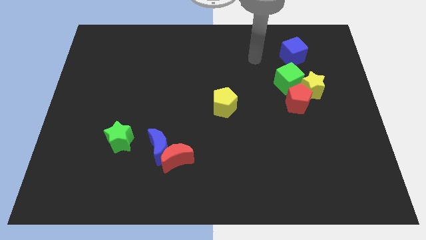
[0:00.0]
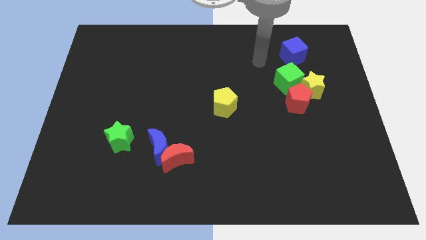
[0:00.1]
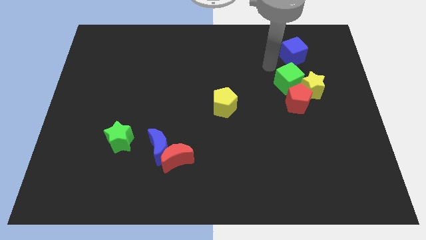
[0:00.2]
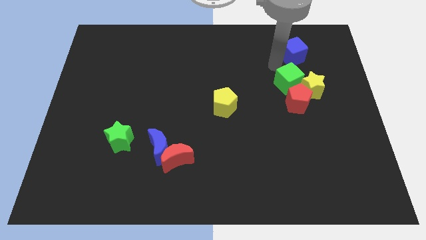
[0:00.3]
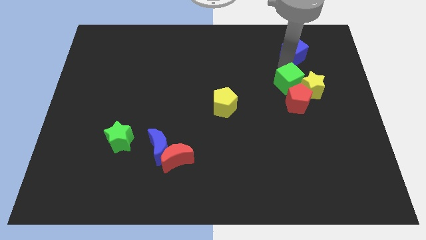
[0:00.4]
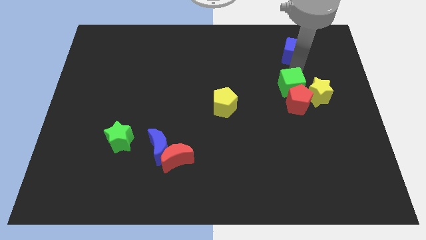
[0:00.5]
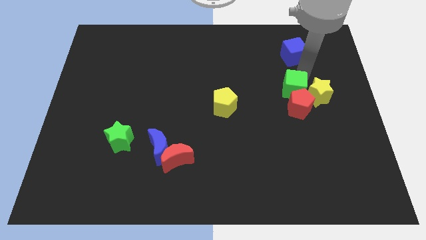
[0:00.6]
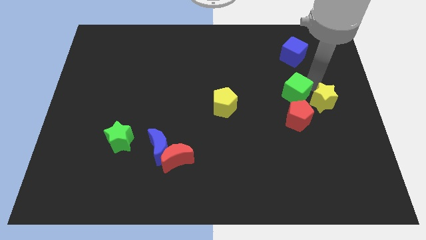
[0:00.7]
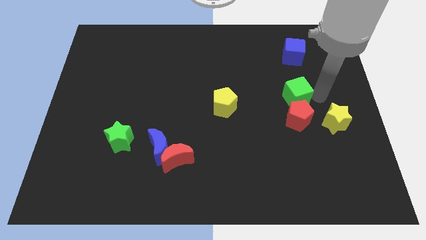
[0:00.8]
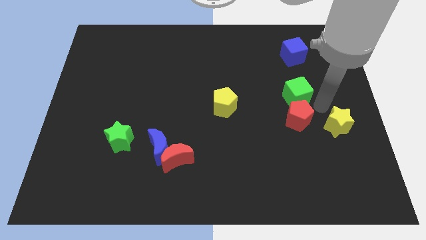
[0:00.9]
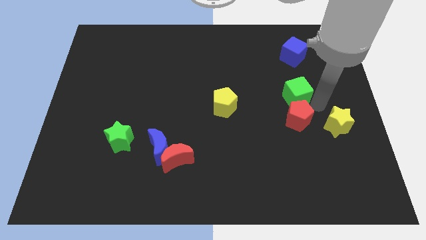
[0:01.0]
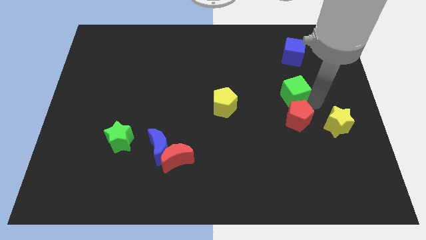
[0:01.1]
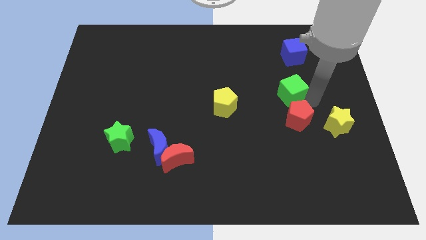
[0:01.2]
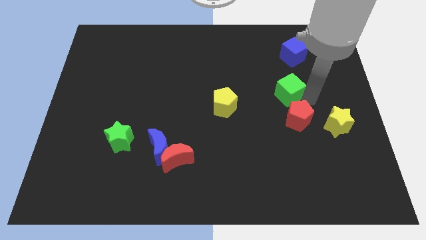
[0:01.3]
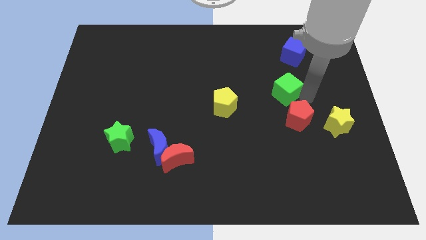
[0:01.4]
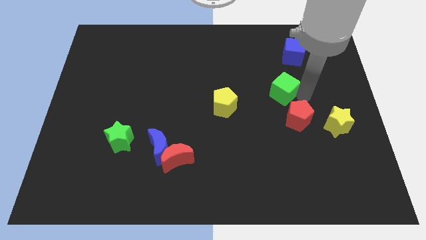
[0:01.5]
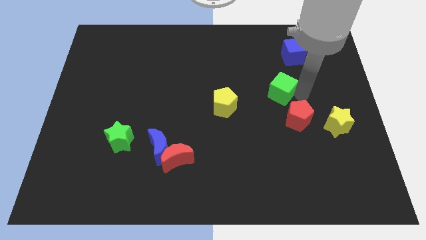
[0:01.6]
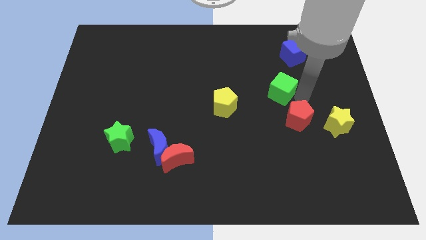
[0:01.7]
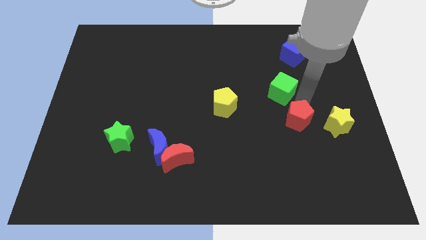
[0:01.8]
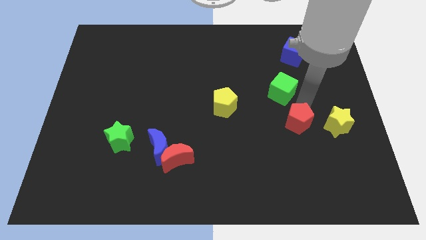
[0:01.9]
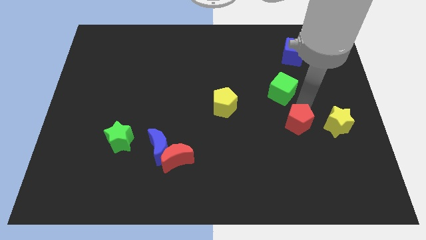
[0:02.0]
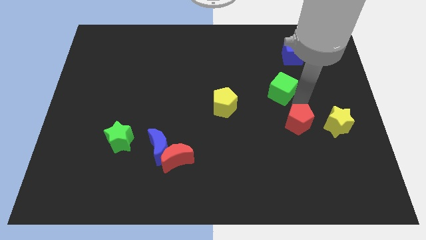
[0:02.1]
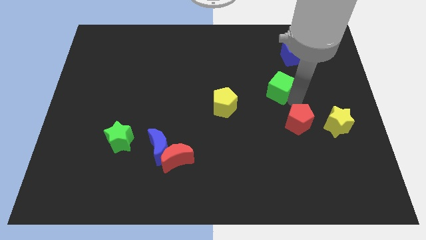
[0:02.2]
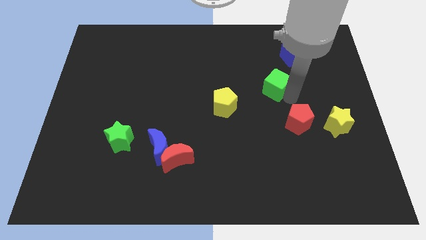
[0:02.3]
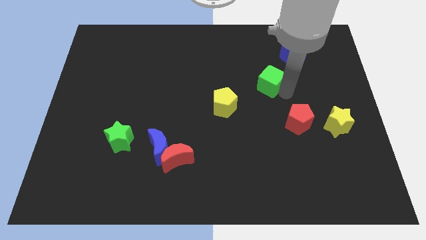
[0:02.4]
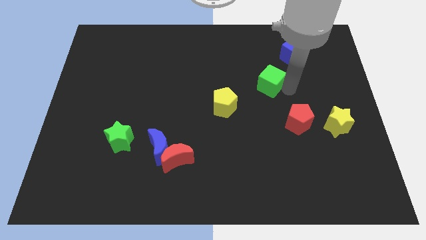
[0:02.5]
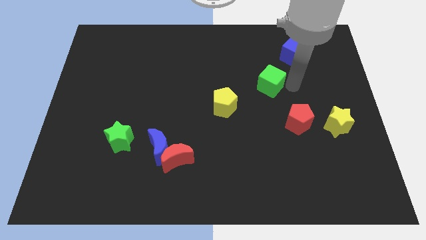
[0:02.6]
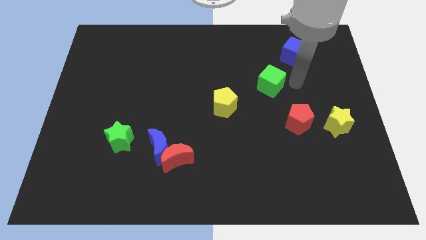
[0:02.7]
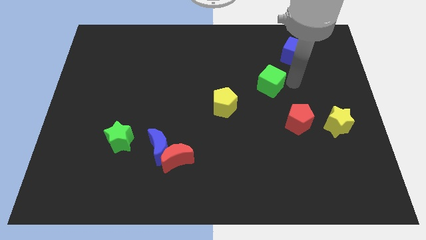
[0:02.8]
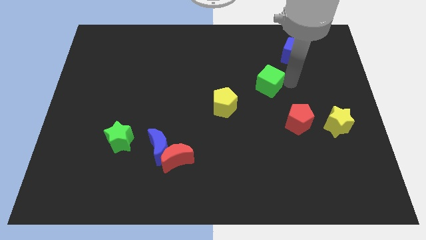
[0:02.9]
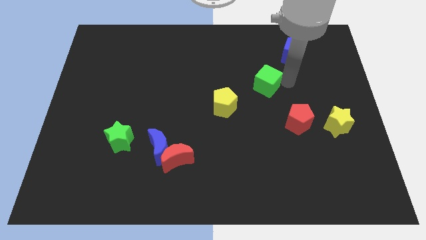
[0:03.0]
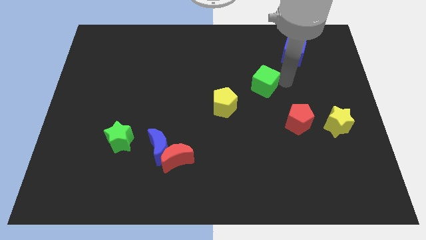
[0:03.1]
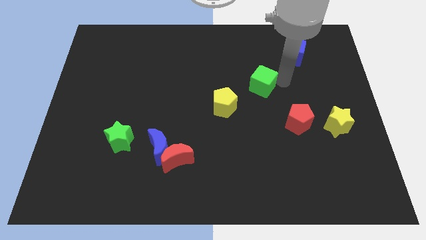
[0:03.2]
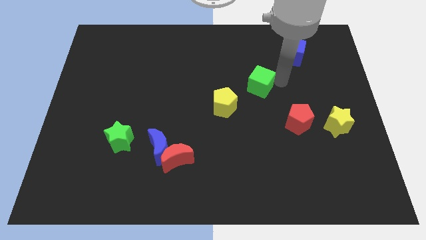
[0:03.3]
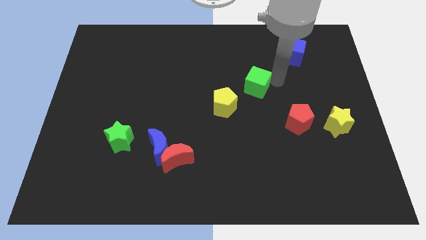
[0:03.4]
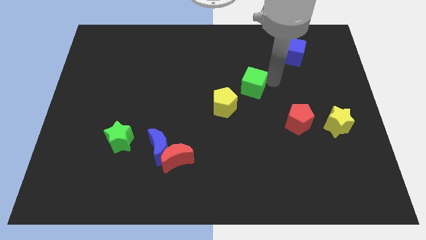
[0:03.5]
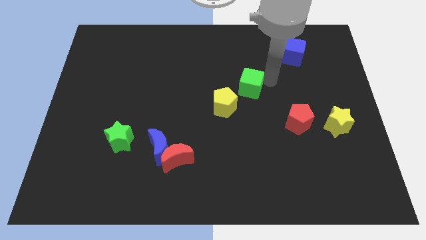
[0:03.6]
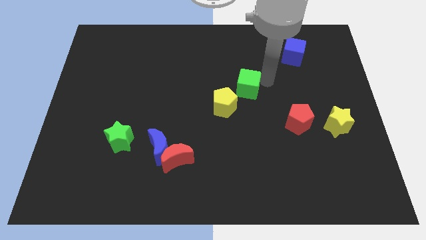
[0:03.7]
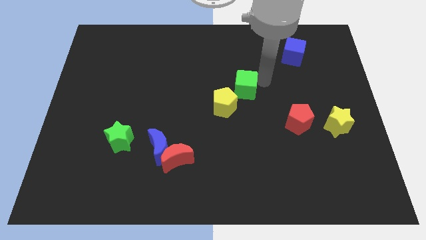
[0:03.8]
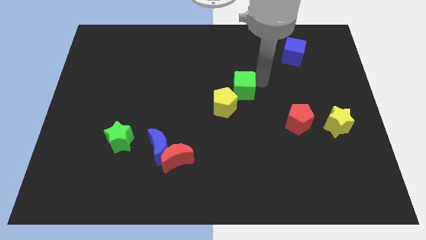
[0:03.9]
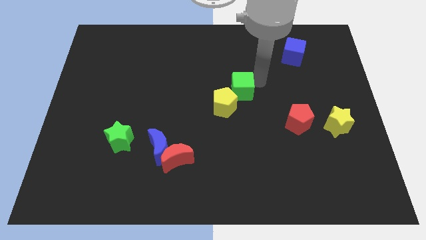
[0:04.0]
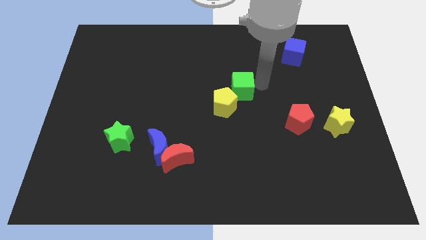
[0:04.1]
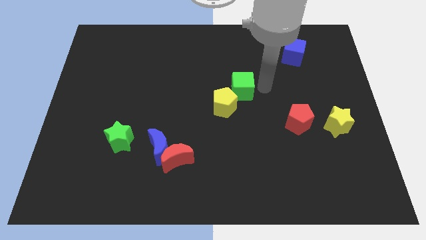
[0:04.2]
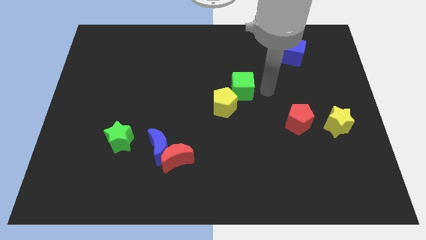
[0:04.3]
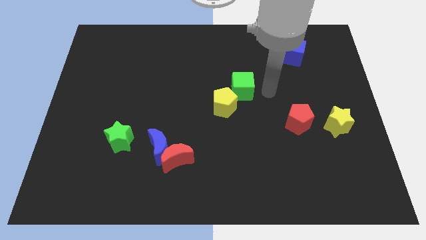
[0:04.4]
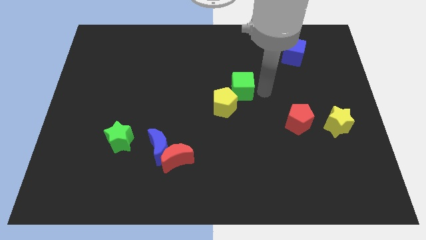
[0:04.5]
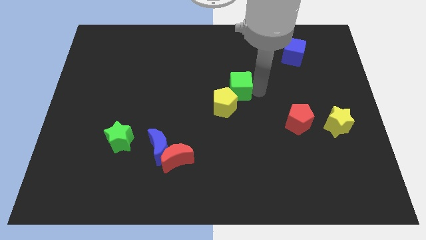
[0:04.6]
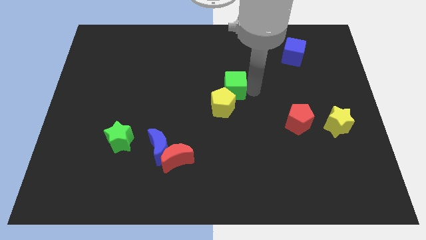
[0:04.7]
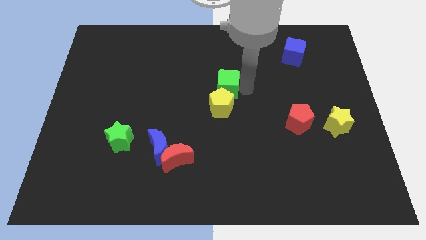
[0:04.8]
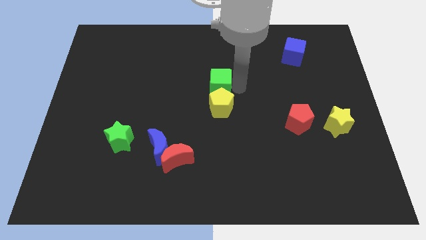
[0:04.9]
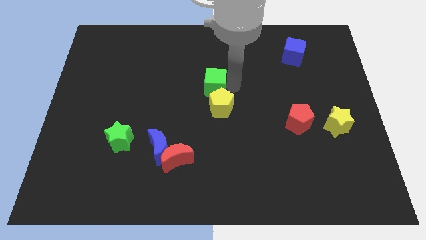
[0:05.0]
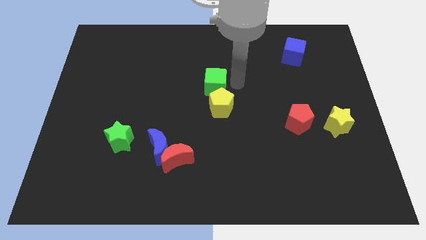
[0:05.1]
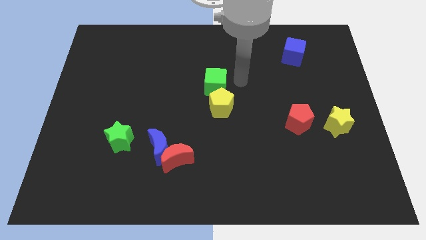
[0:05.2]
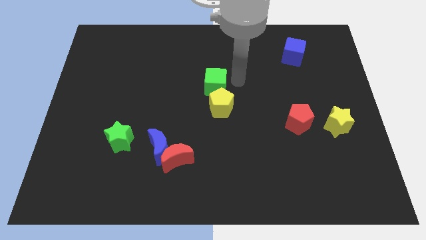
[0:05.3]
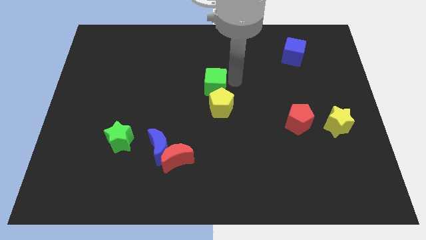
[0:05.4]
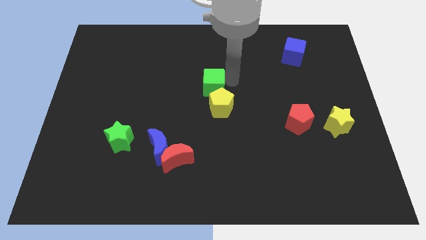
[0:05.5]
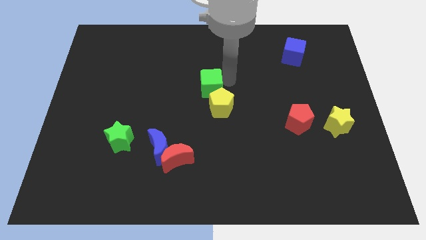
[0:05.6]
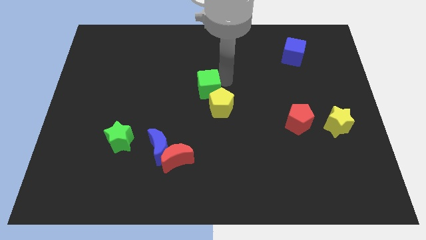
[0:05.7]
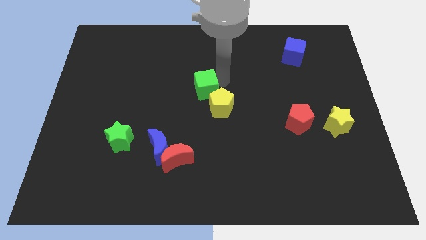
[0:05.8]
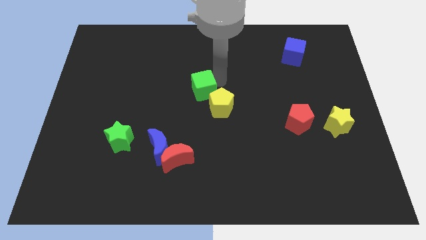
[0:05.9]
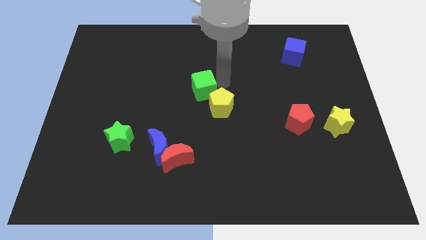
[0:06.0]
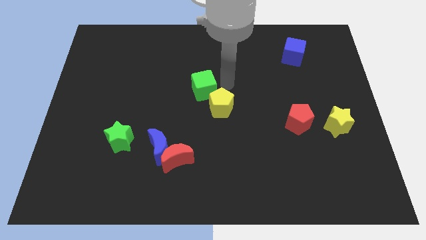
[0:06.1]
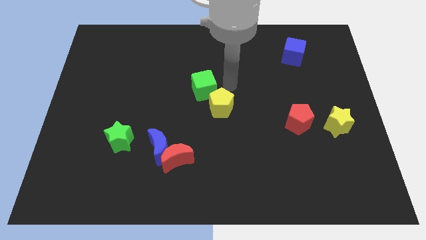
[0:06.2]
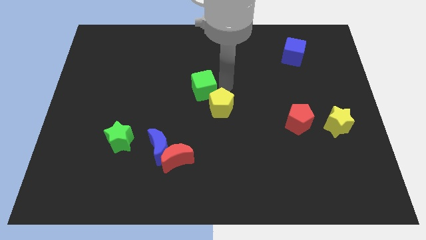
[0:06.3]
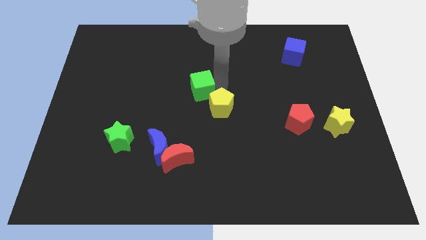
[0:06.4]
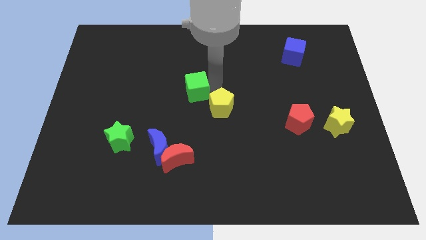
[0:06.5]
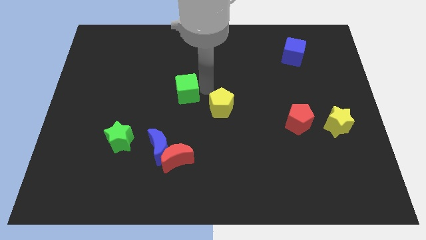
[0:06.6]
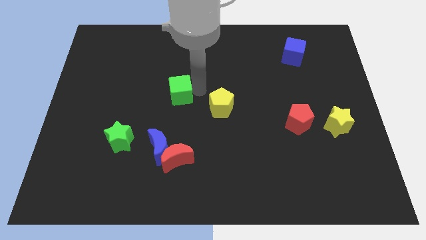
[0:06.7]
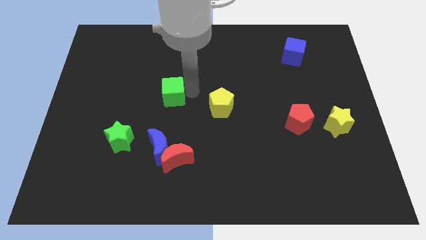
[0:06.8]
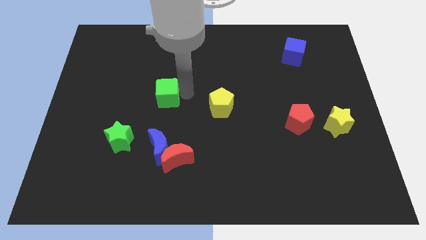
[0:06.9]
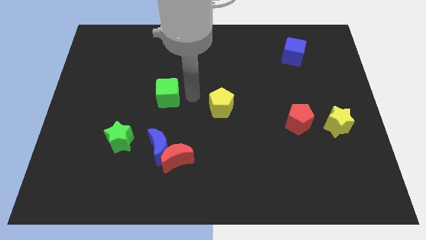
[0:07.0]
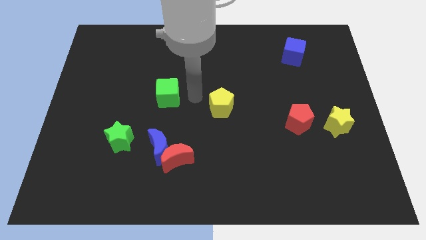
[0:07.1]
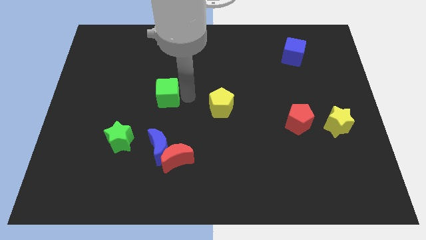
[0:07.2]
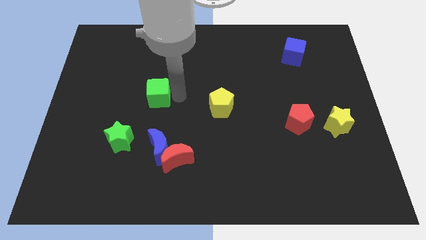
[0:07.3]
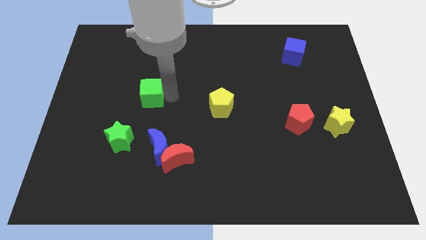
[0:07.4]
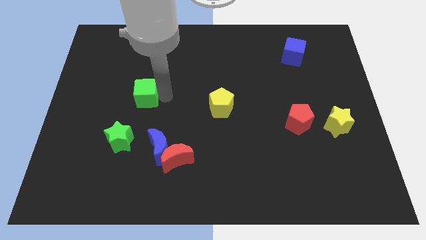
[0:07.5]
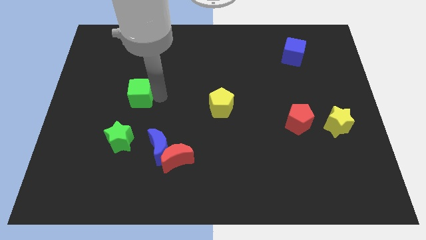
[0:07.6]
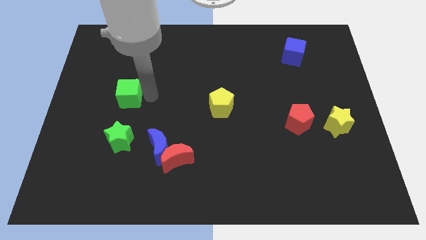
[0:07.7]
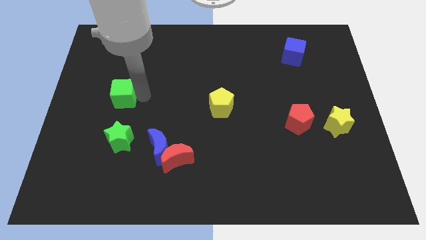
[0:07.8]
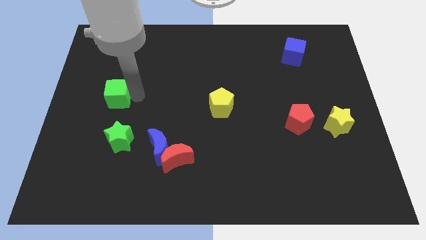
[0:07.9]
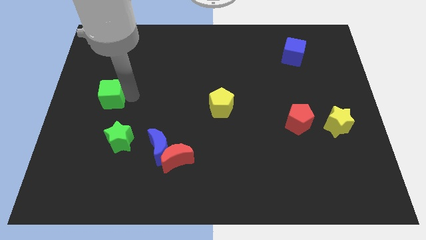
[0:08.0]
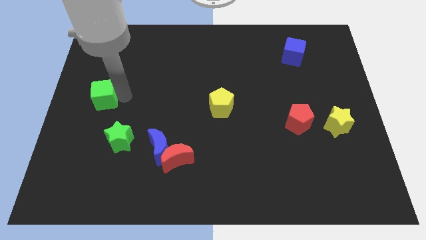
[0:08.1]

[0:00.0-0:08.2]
push the green cube to the left side of the board
